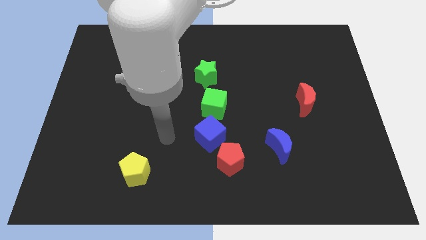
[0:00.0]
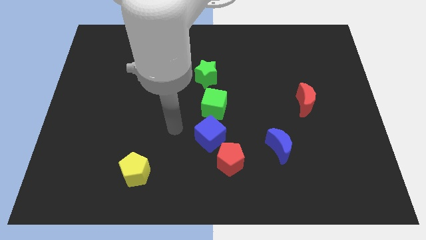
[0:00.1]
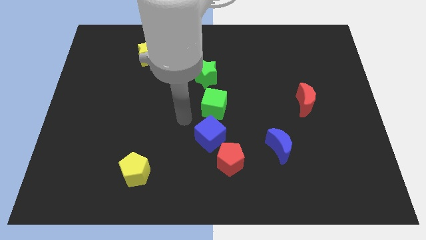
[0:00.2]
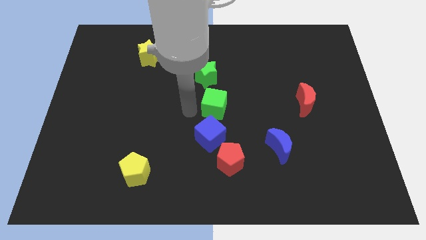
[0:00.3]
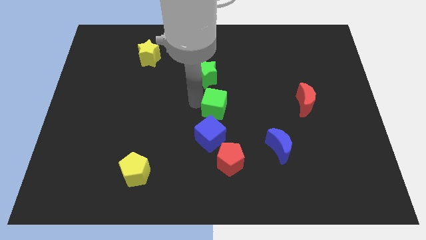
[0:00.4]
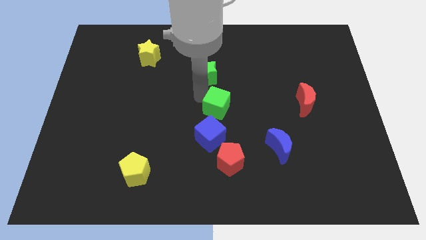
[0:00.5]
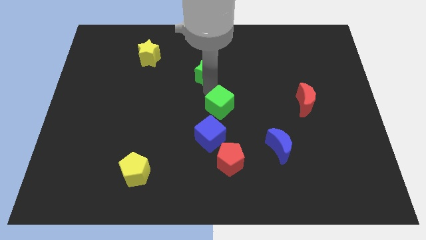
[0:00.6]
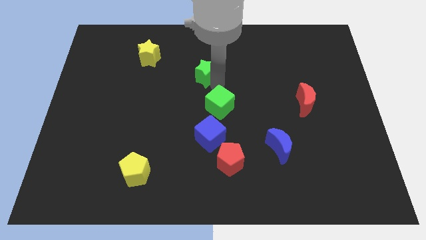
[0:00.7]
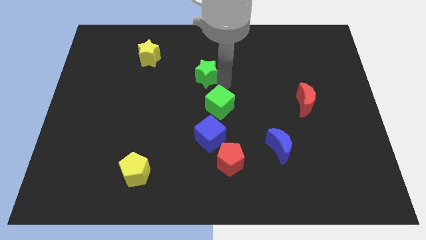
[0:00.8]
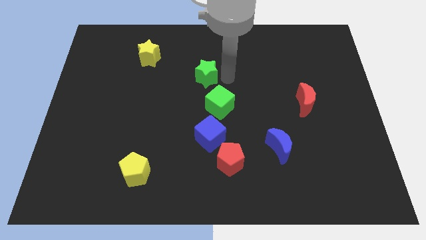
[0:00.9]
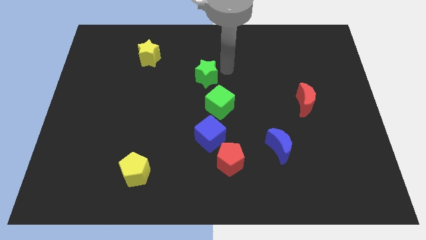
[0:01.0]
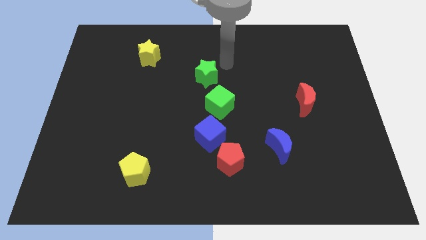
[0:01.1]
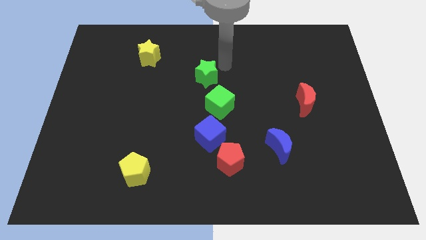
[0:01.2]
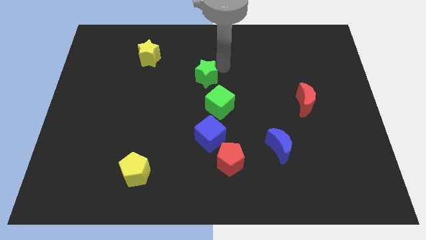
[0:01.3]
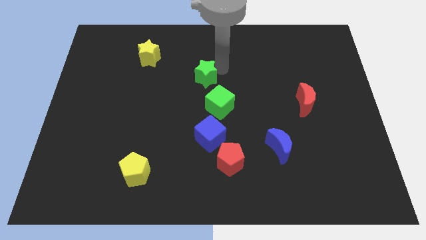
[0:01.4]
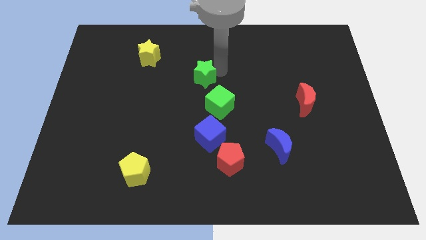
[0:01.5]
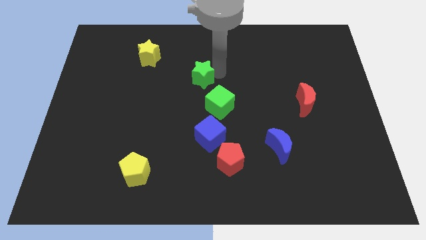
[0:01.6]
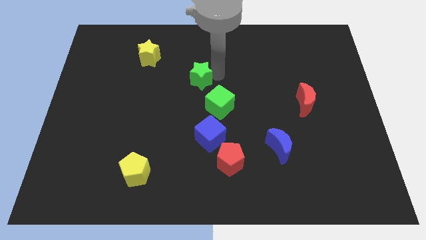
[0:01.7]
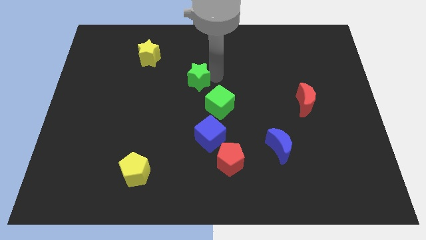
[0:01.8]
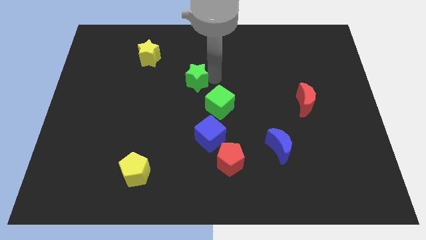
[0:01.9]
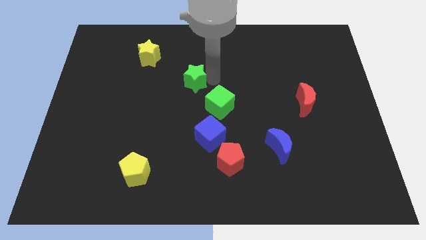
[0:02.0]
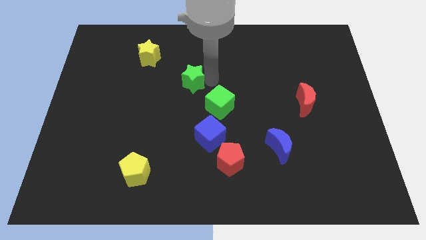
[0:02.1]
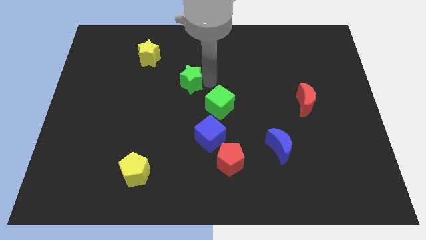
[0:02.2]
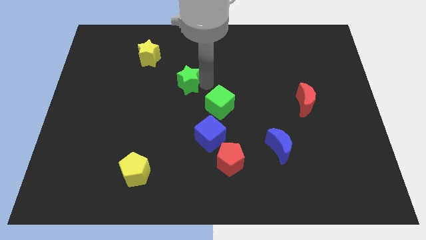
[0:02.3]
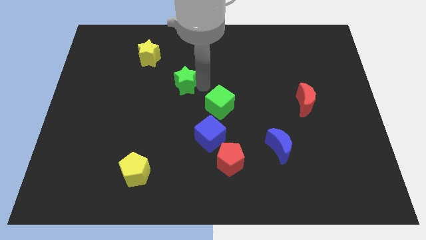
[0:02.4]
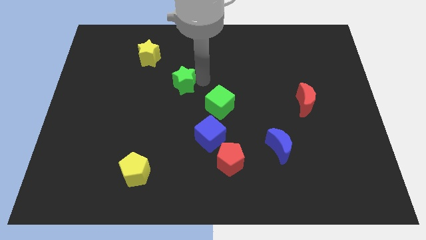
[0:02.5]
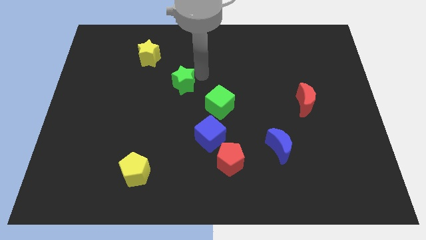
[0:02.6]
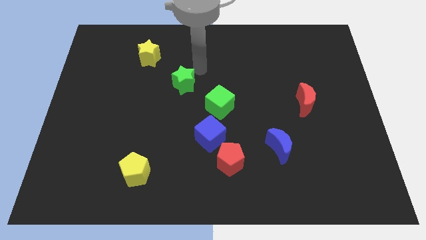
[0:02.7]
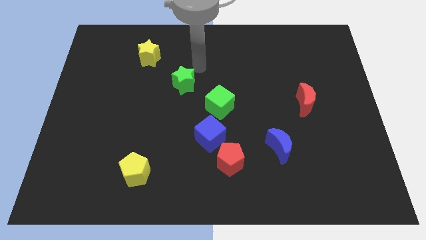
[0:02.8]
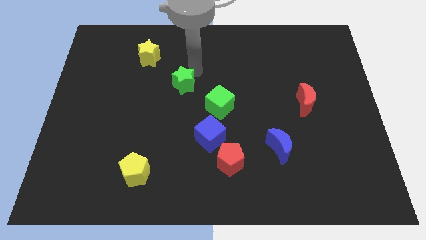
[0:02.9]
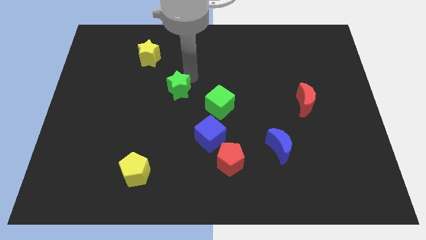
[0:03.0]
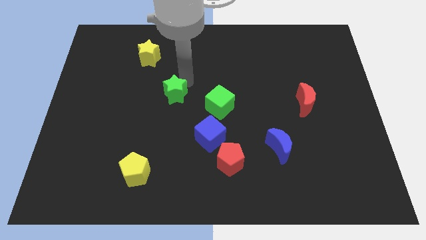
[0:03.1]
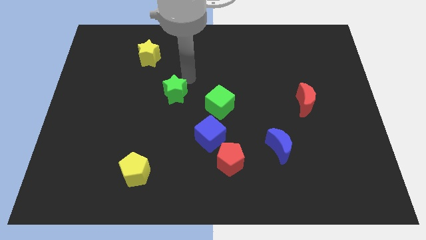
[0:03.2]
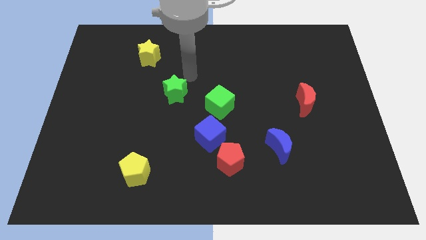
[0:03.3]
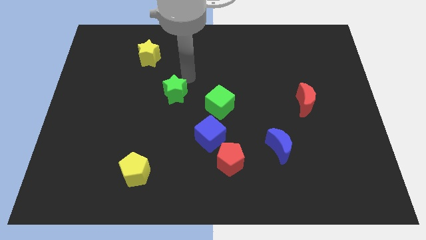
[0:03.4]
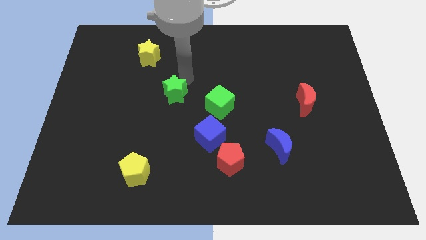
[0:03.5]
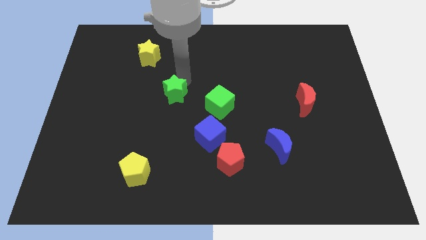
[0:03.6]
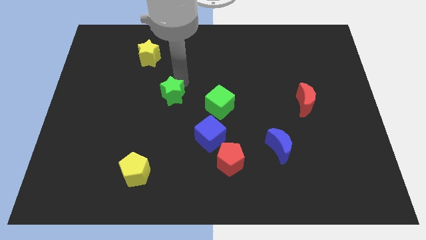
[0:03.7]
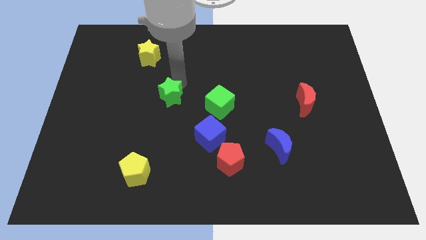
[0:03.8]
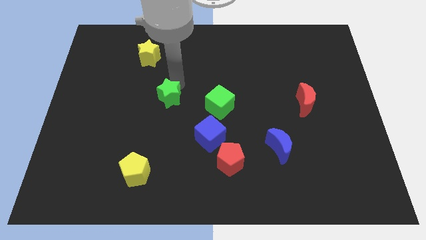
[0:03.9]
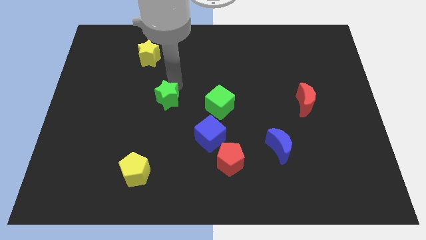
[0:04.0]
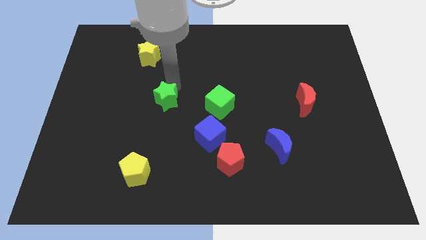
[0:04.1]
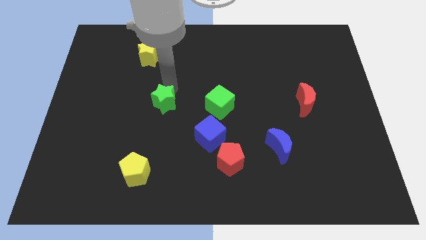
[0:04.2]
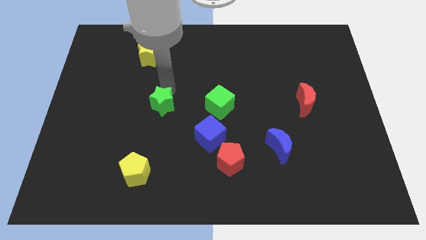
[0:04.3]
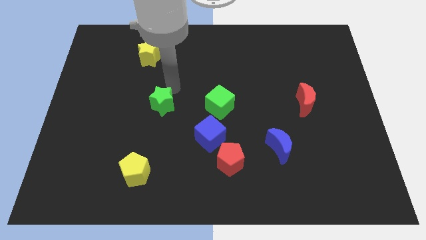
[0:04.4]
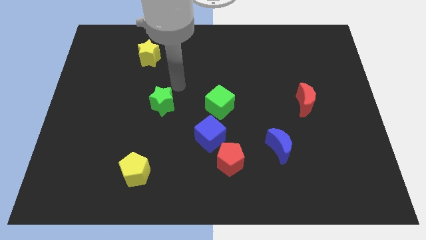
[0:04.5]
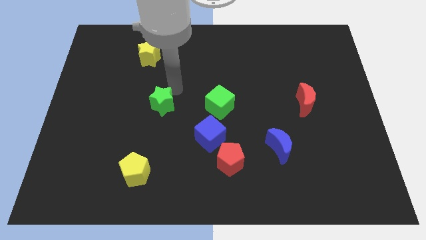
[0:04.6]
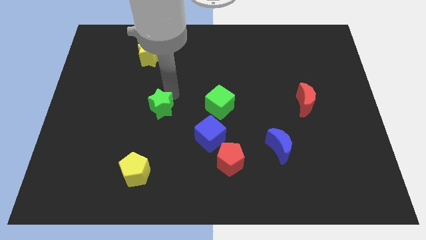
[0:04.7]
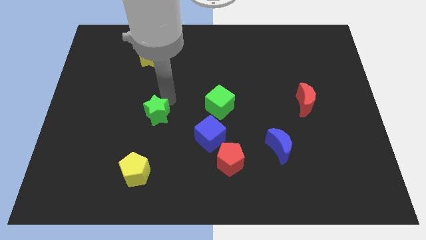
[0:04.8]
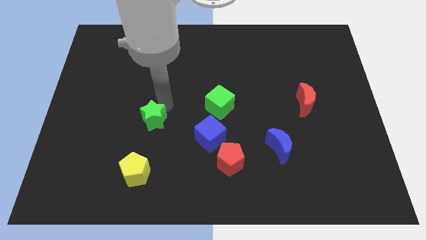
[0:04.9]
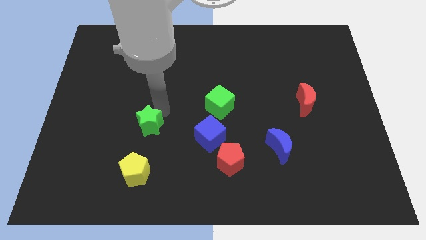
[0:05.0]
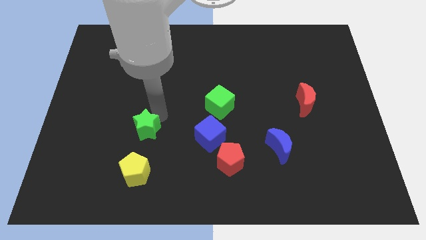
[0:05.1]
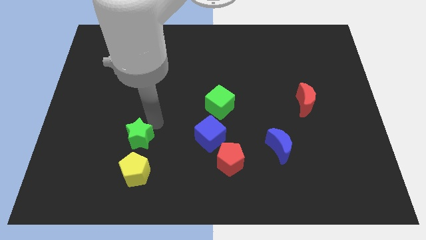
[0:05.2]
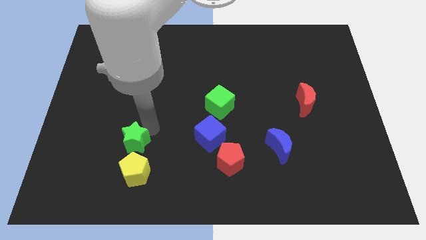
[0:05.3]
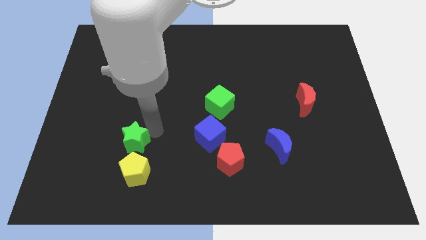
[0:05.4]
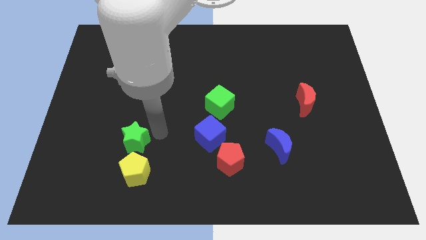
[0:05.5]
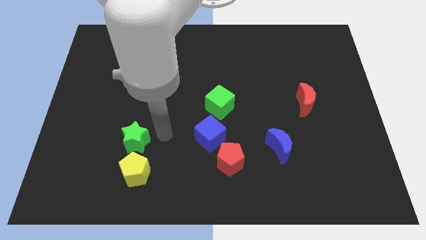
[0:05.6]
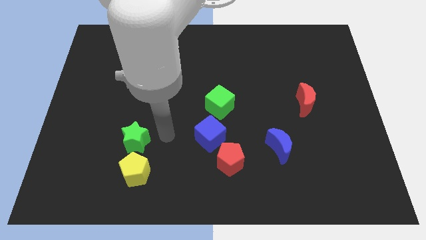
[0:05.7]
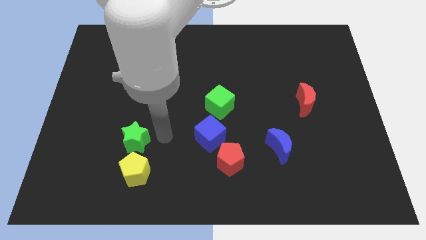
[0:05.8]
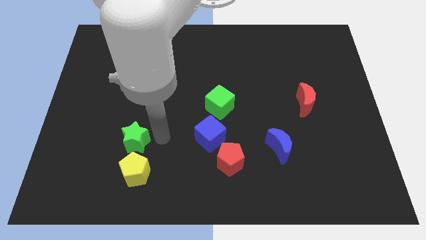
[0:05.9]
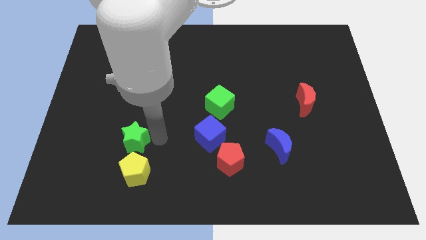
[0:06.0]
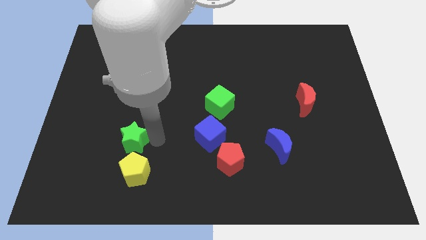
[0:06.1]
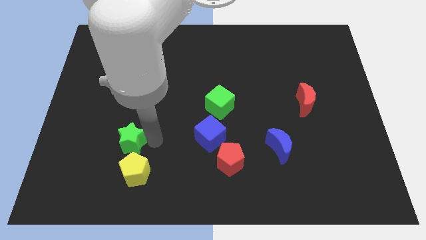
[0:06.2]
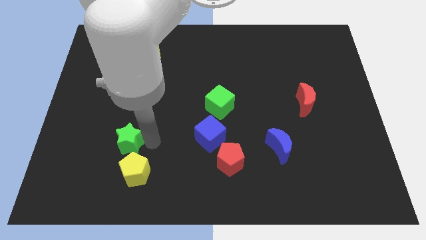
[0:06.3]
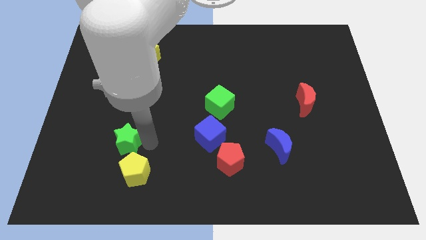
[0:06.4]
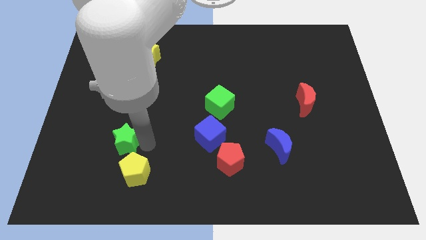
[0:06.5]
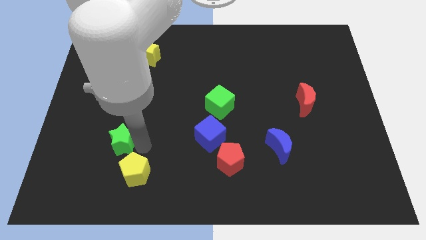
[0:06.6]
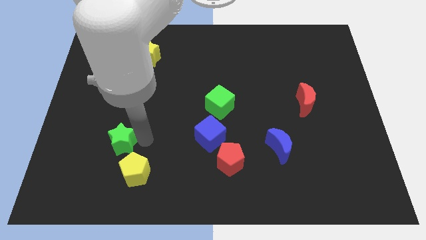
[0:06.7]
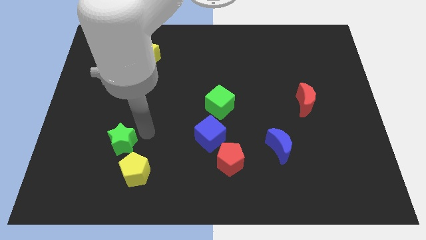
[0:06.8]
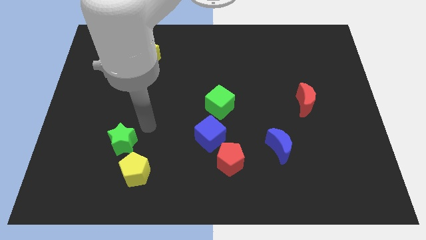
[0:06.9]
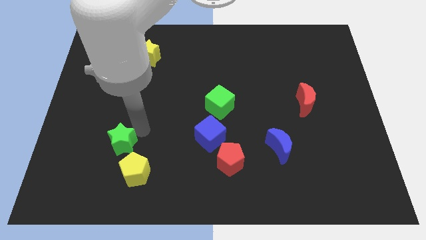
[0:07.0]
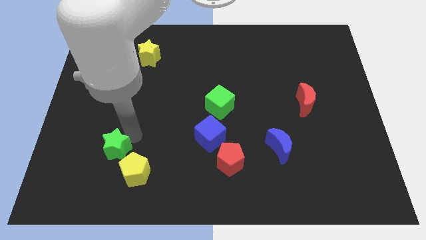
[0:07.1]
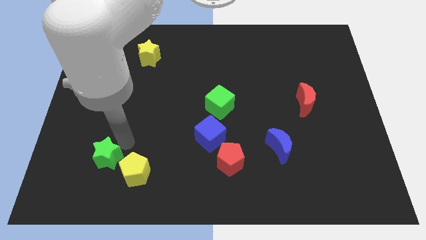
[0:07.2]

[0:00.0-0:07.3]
move the green star to the left side of the yellow pentagon

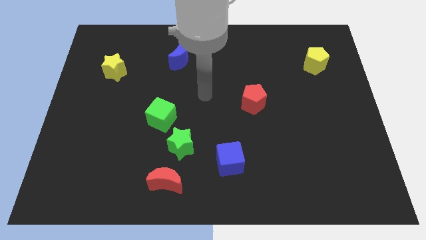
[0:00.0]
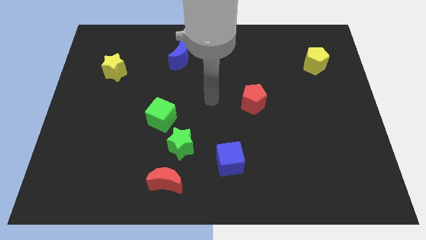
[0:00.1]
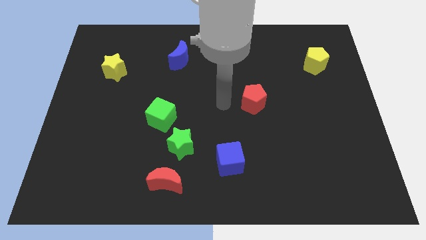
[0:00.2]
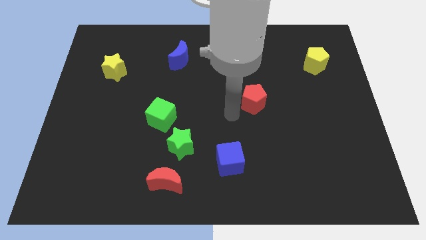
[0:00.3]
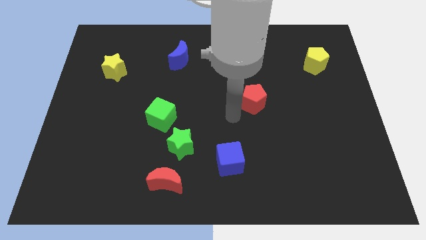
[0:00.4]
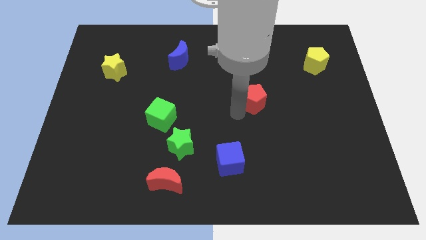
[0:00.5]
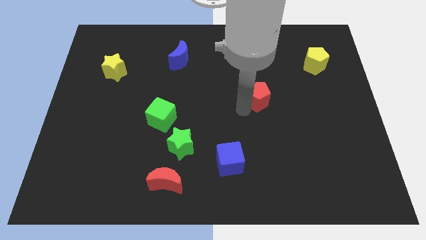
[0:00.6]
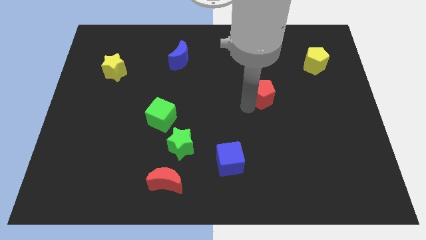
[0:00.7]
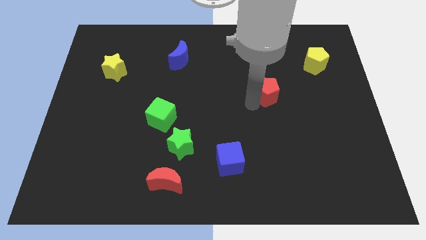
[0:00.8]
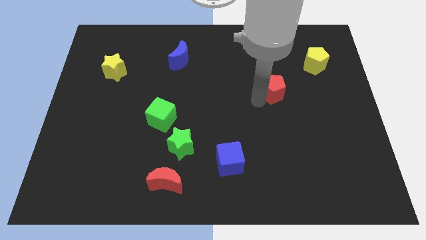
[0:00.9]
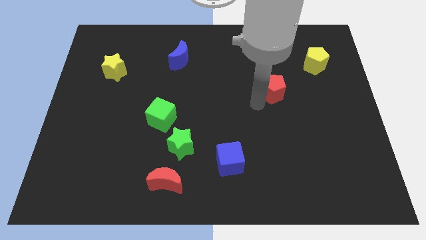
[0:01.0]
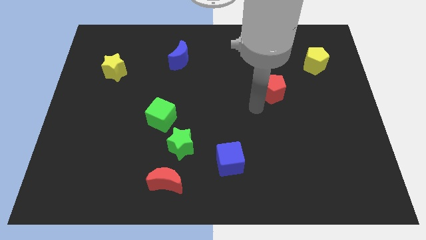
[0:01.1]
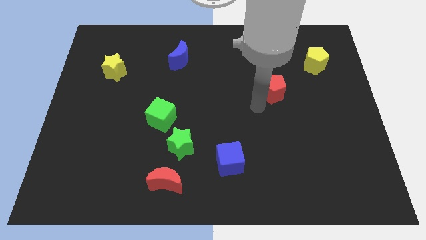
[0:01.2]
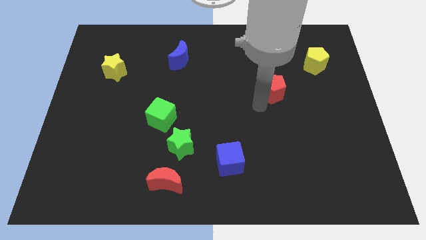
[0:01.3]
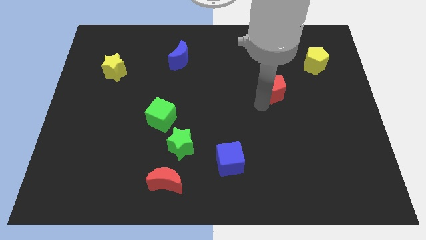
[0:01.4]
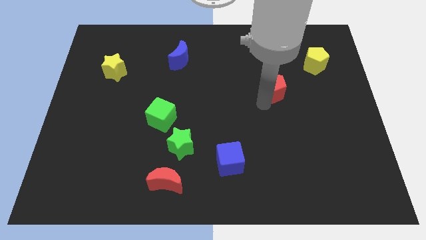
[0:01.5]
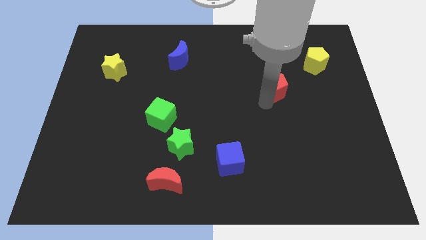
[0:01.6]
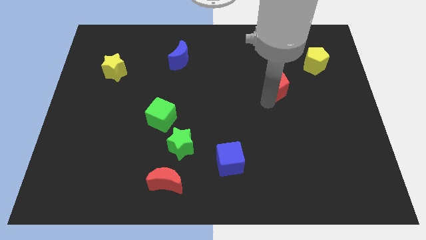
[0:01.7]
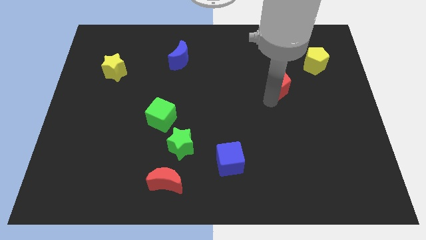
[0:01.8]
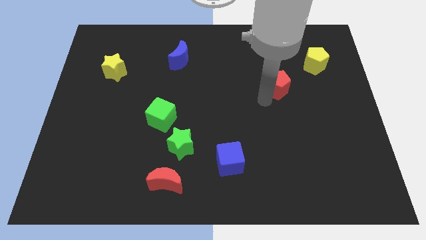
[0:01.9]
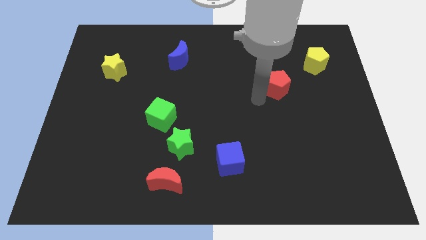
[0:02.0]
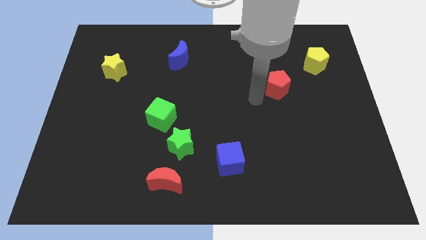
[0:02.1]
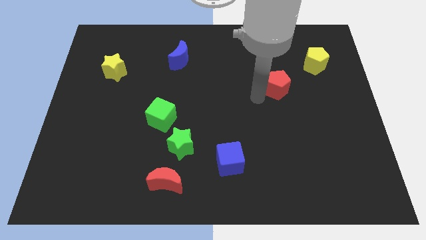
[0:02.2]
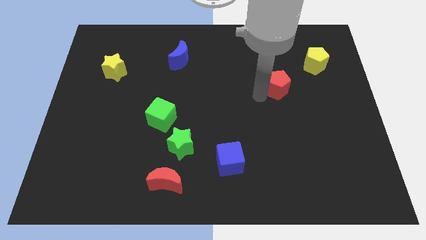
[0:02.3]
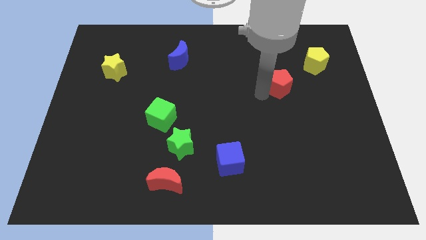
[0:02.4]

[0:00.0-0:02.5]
move the red pentagon to the bottom left of the yellow pentagon
